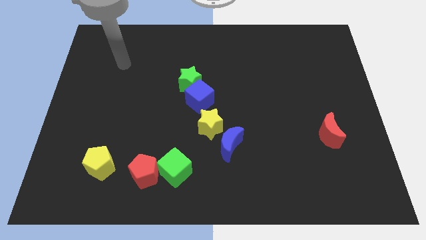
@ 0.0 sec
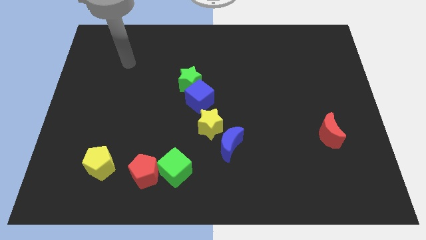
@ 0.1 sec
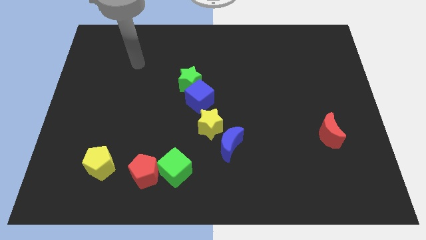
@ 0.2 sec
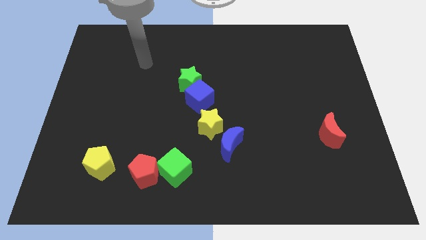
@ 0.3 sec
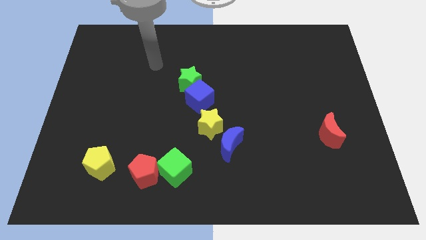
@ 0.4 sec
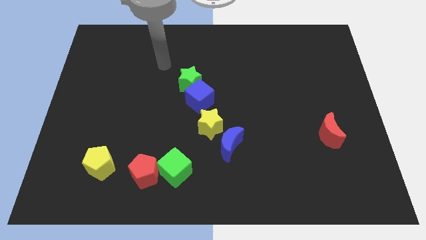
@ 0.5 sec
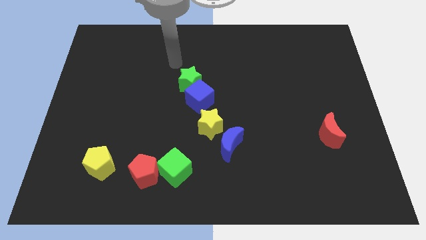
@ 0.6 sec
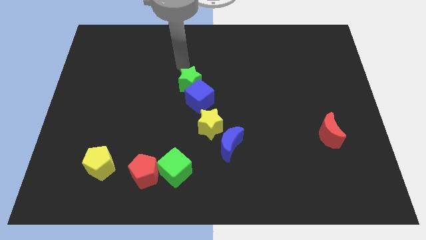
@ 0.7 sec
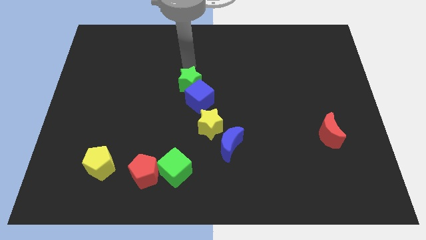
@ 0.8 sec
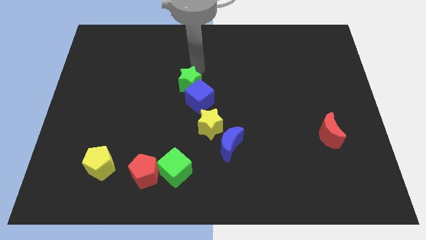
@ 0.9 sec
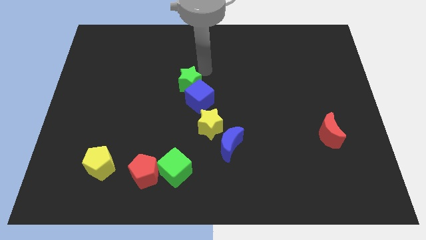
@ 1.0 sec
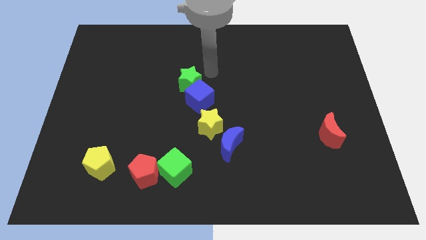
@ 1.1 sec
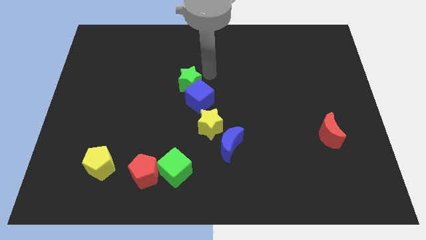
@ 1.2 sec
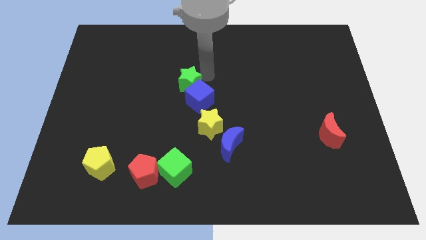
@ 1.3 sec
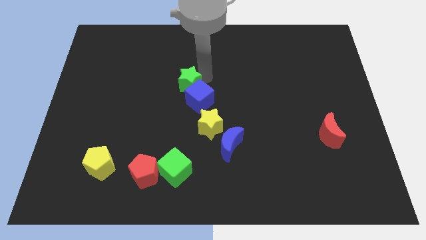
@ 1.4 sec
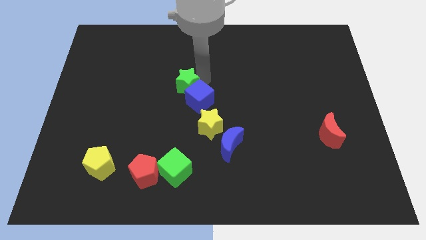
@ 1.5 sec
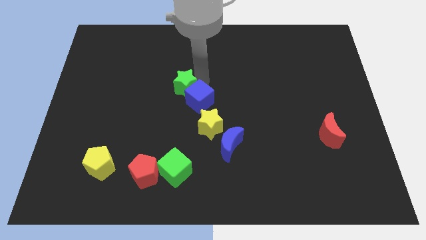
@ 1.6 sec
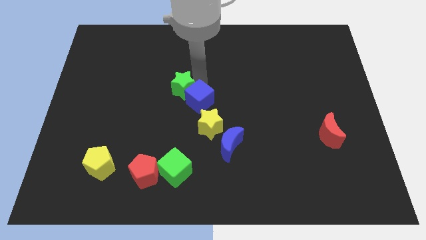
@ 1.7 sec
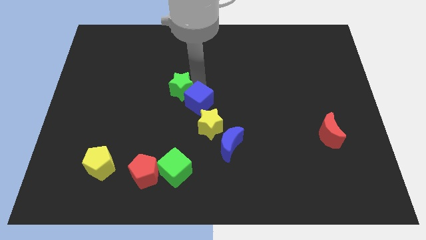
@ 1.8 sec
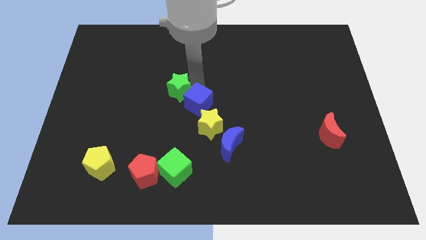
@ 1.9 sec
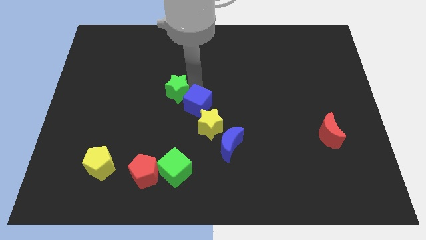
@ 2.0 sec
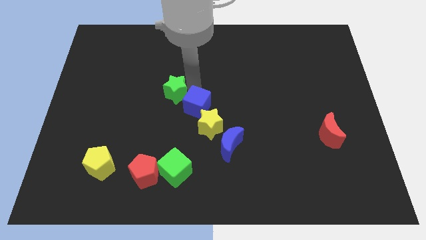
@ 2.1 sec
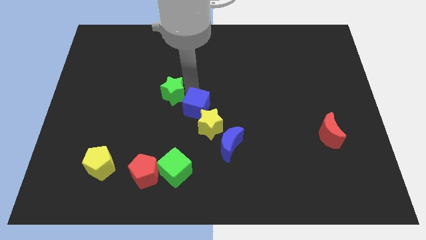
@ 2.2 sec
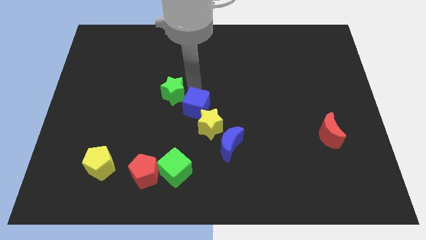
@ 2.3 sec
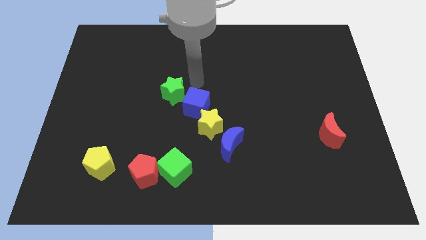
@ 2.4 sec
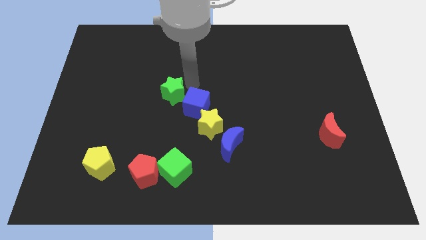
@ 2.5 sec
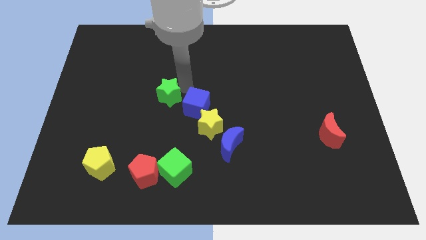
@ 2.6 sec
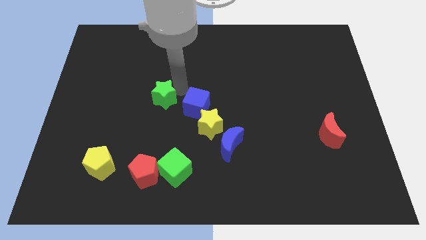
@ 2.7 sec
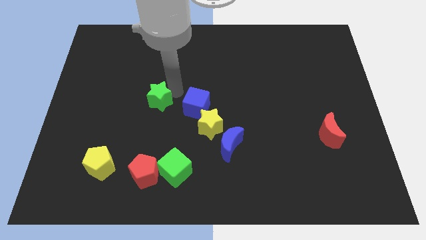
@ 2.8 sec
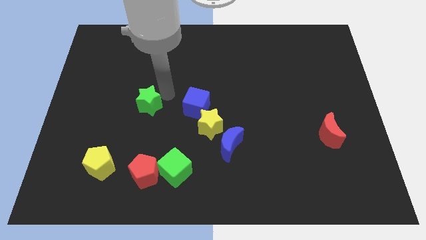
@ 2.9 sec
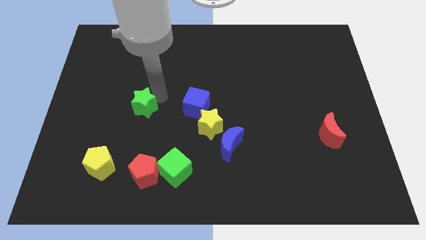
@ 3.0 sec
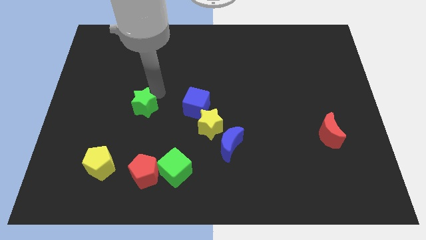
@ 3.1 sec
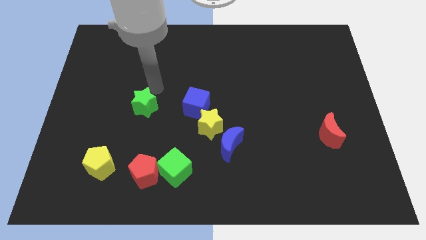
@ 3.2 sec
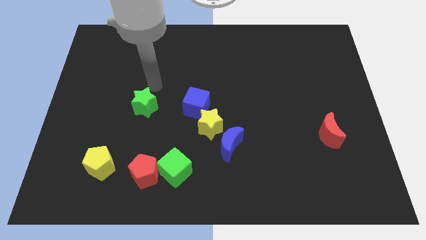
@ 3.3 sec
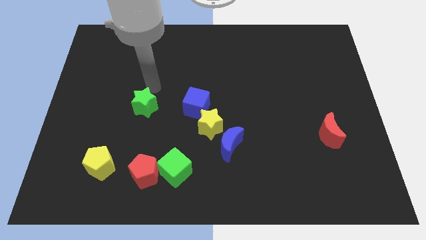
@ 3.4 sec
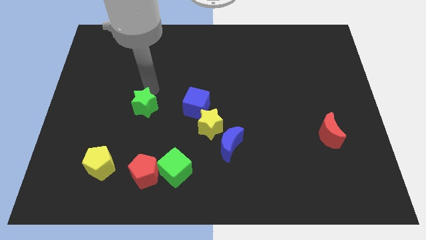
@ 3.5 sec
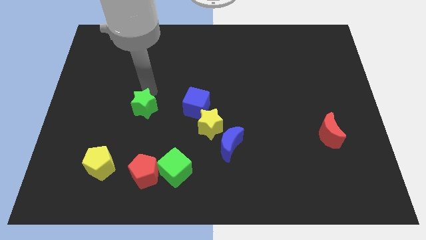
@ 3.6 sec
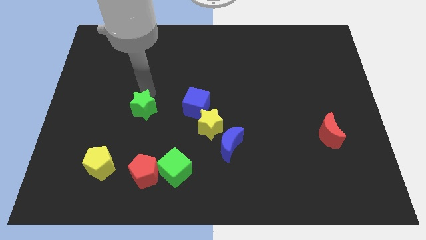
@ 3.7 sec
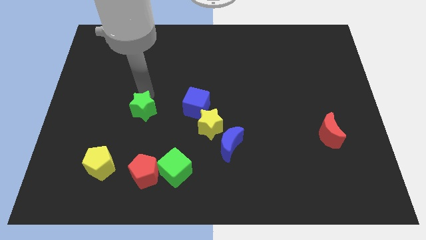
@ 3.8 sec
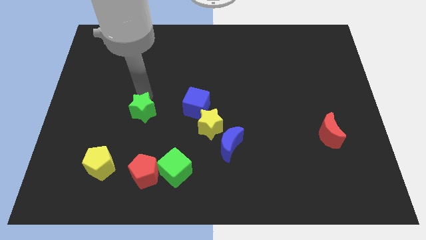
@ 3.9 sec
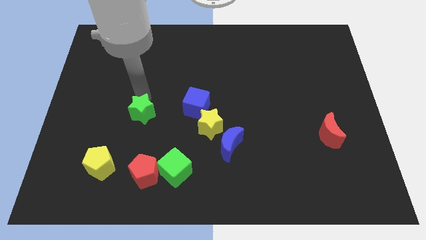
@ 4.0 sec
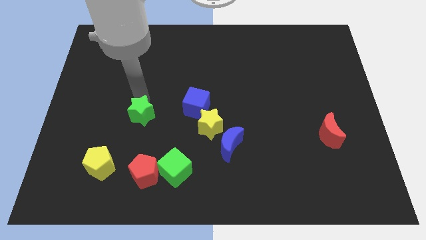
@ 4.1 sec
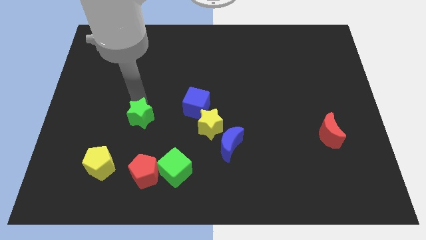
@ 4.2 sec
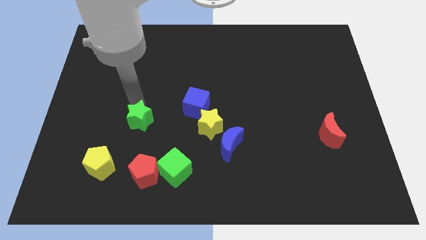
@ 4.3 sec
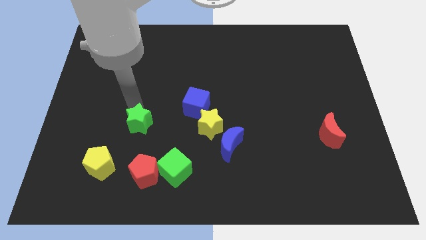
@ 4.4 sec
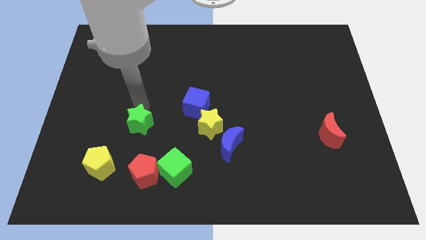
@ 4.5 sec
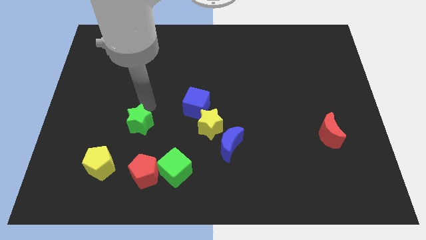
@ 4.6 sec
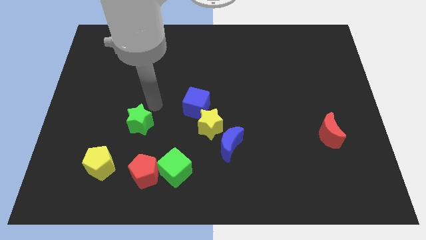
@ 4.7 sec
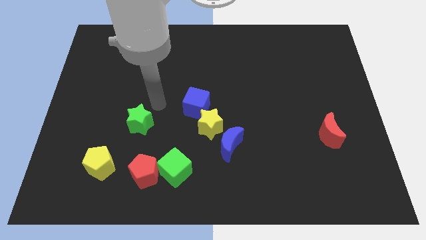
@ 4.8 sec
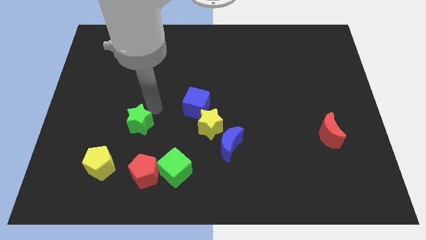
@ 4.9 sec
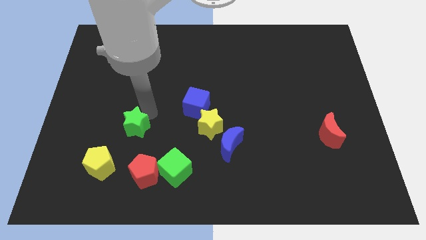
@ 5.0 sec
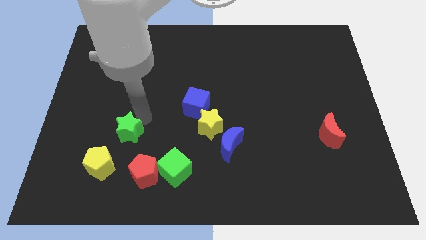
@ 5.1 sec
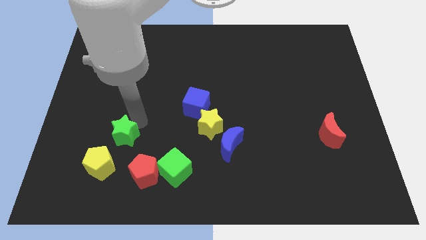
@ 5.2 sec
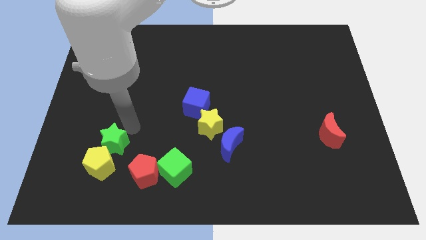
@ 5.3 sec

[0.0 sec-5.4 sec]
put the green star next to the yellow pentagon

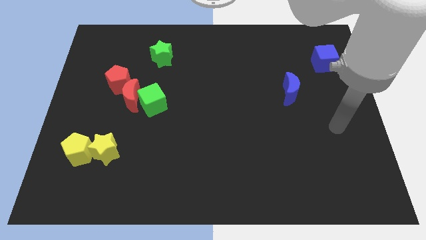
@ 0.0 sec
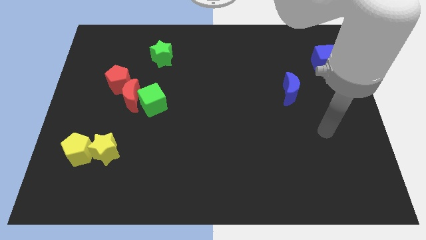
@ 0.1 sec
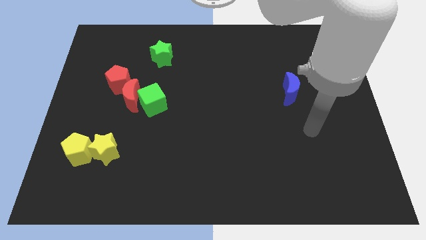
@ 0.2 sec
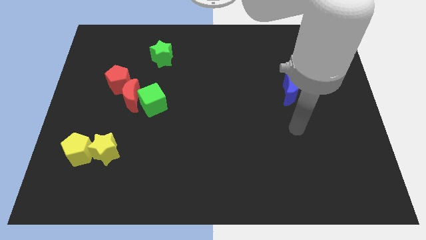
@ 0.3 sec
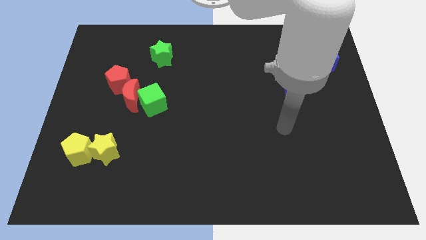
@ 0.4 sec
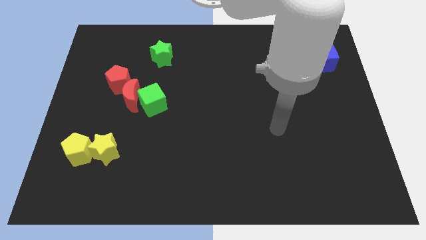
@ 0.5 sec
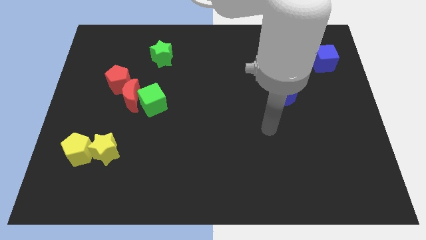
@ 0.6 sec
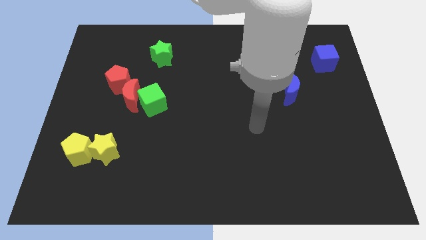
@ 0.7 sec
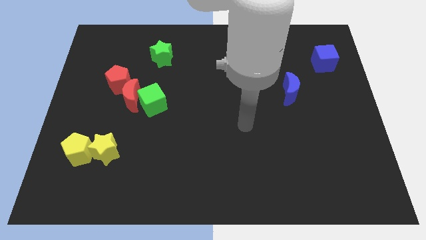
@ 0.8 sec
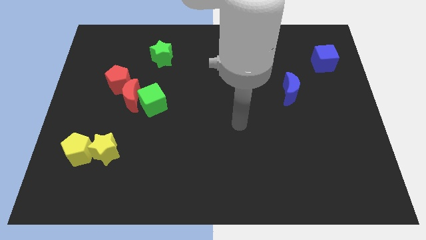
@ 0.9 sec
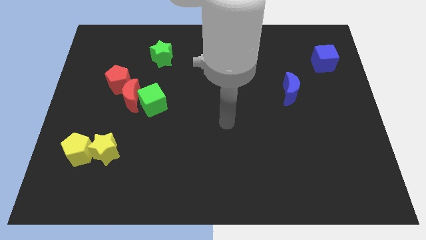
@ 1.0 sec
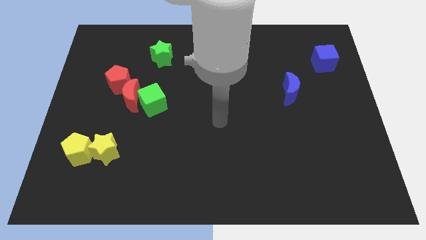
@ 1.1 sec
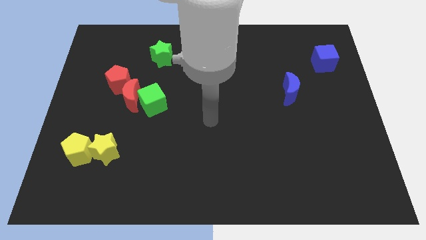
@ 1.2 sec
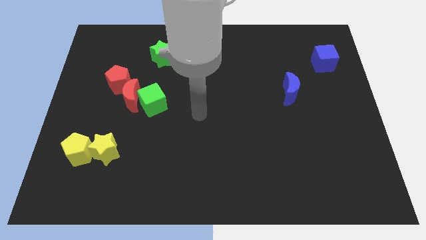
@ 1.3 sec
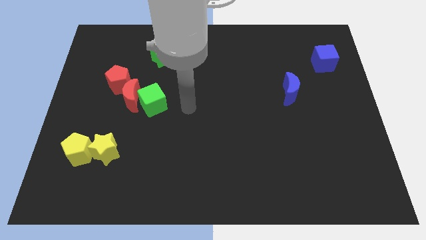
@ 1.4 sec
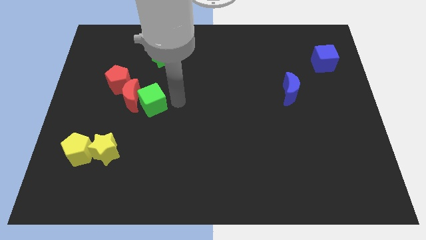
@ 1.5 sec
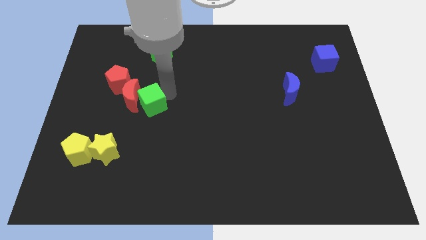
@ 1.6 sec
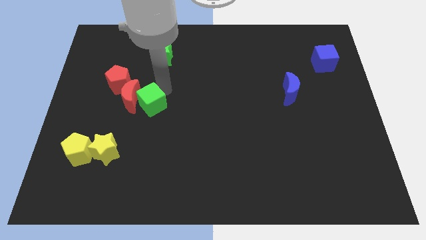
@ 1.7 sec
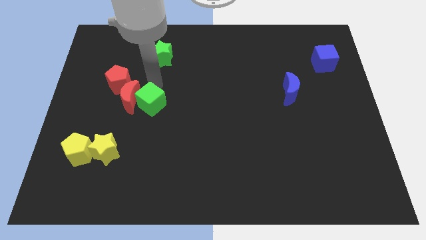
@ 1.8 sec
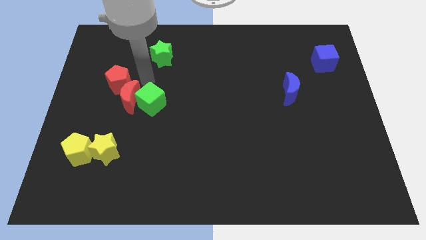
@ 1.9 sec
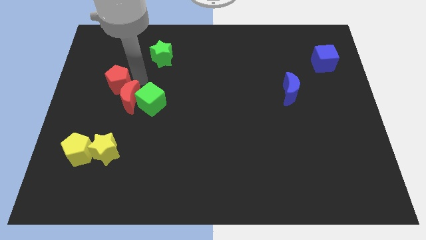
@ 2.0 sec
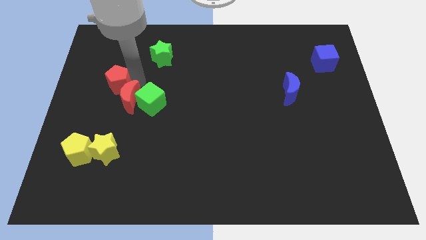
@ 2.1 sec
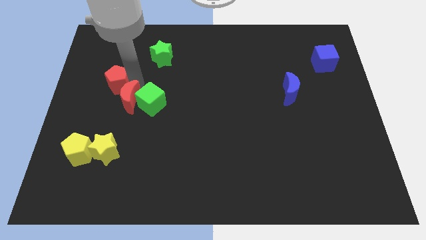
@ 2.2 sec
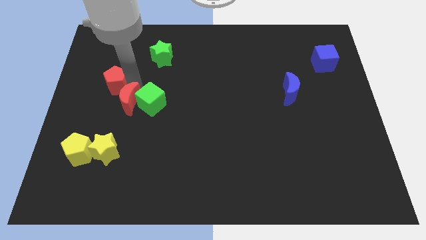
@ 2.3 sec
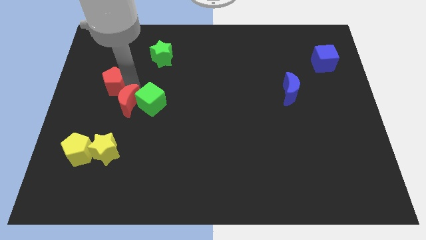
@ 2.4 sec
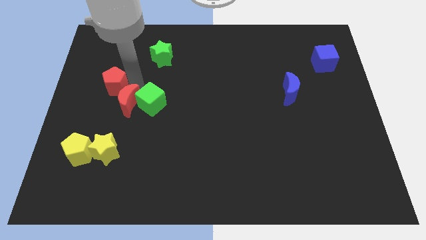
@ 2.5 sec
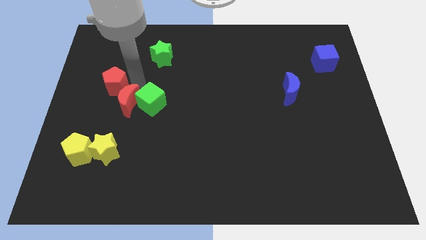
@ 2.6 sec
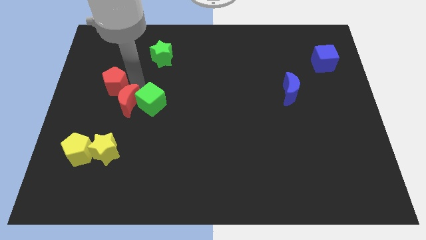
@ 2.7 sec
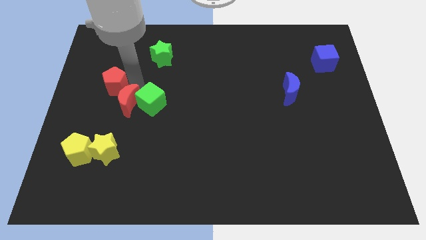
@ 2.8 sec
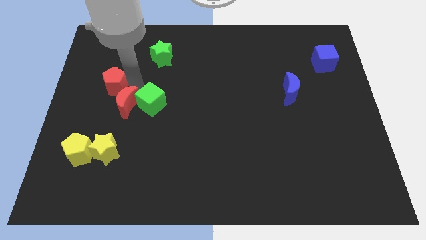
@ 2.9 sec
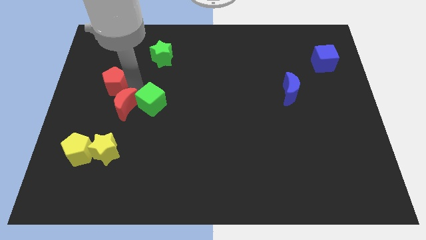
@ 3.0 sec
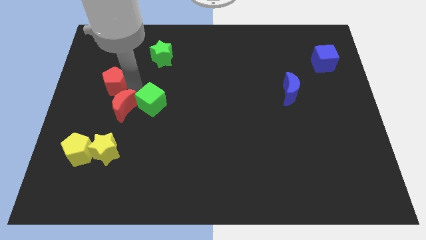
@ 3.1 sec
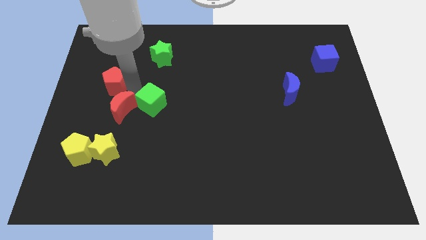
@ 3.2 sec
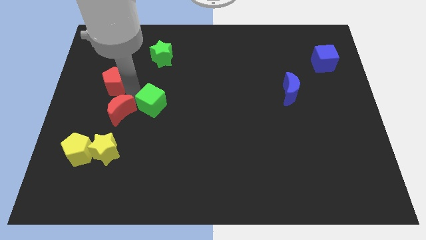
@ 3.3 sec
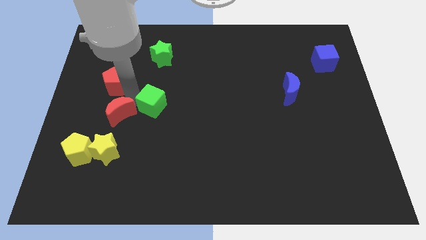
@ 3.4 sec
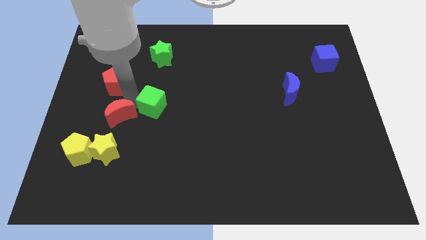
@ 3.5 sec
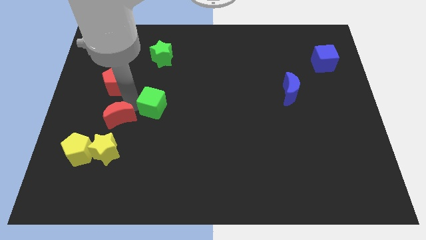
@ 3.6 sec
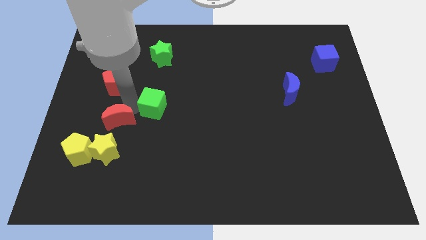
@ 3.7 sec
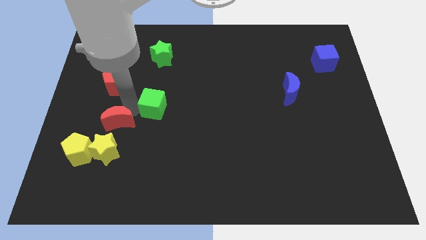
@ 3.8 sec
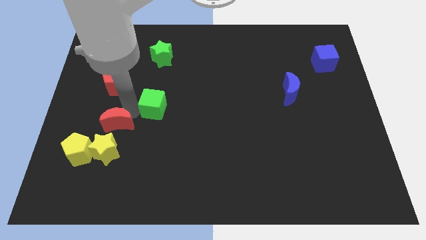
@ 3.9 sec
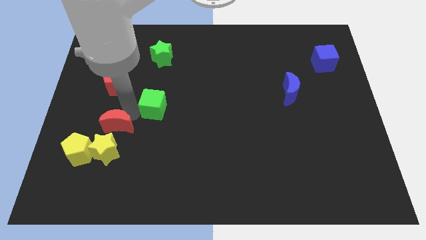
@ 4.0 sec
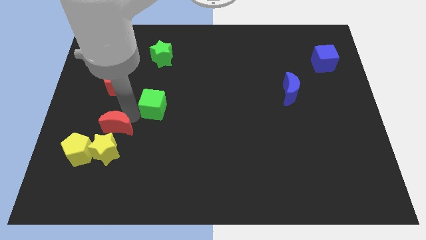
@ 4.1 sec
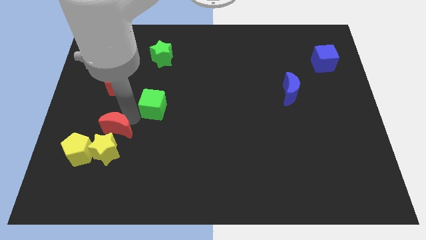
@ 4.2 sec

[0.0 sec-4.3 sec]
put the red moon close to the yellow star
